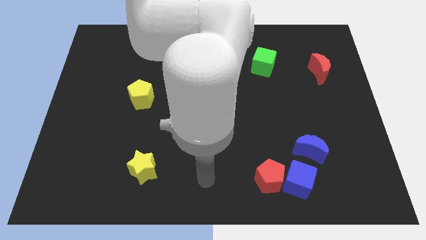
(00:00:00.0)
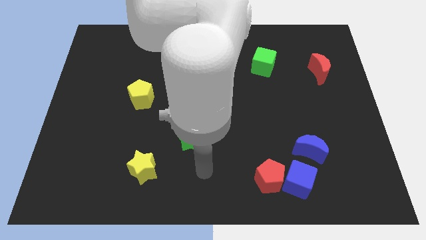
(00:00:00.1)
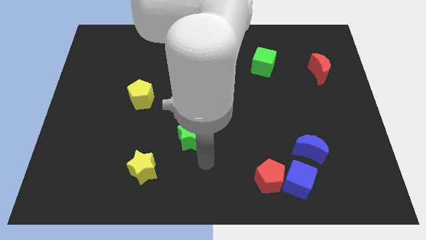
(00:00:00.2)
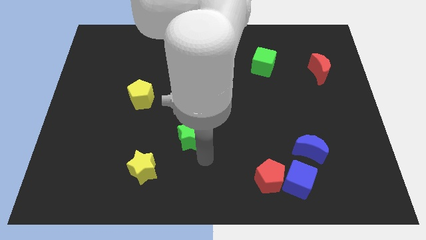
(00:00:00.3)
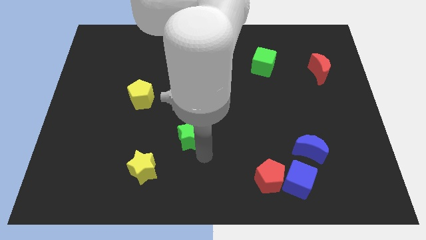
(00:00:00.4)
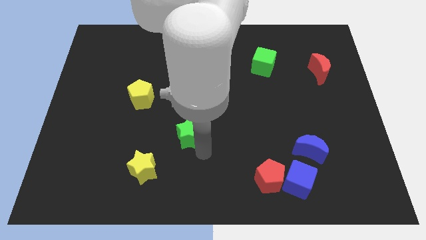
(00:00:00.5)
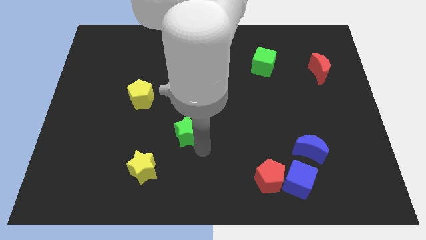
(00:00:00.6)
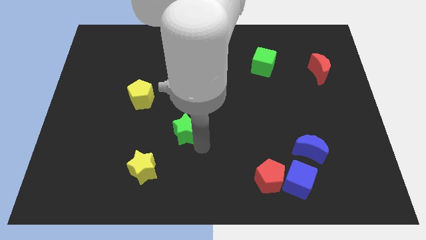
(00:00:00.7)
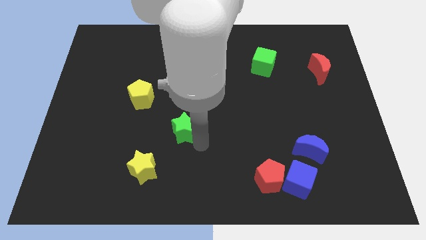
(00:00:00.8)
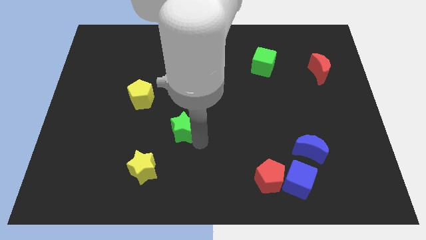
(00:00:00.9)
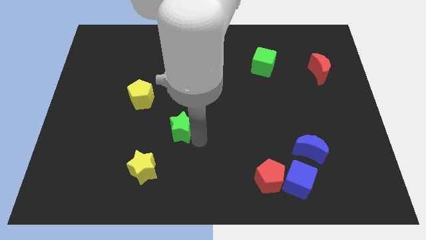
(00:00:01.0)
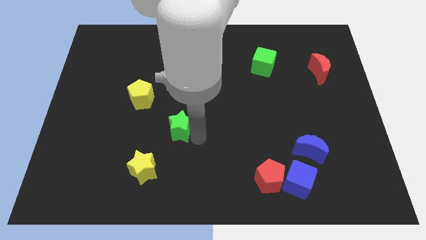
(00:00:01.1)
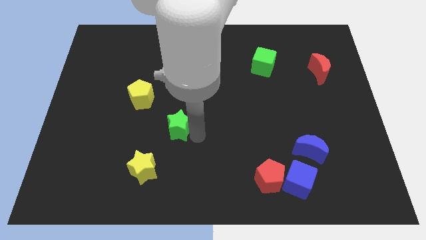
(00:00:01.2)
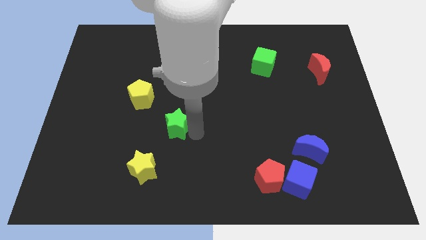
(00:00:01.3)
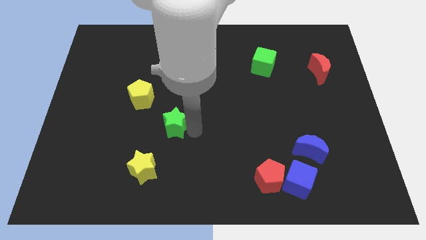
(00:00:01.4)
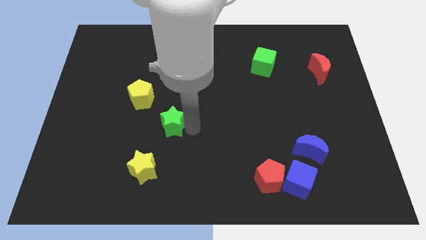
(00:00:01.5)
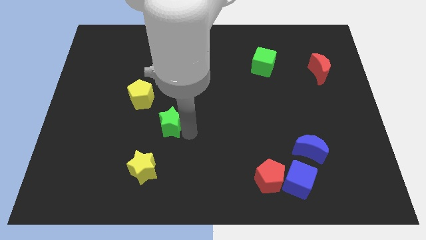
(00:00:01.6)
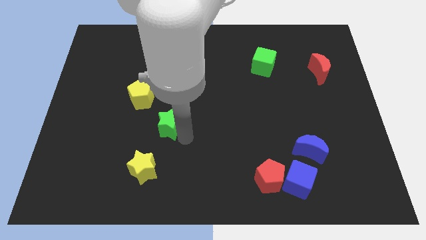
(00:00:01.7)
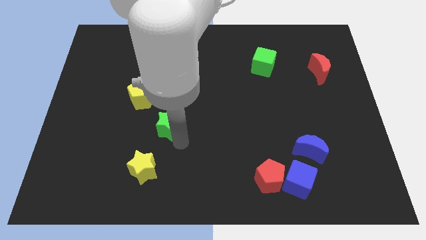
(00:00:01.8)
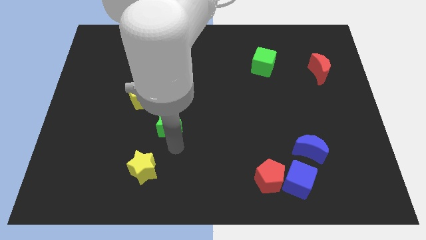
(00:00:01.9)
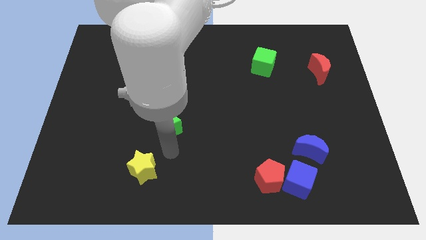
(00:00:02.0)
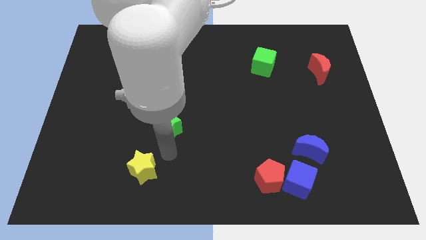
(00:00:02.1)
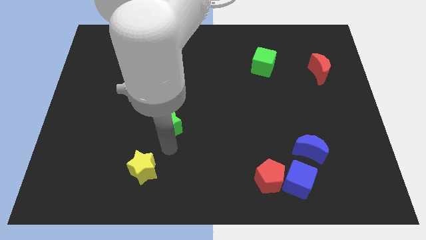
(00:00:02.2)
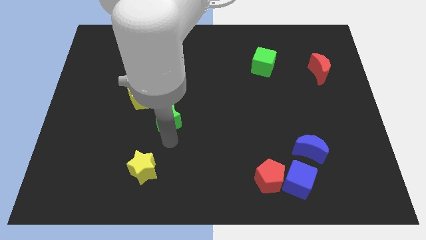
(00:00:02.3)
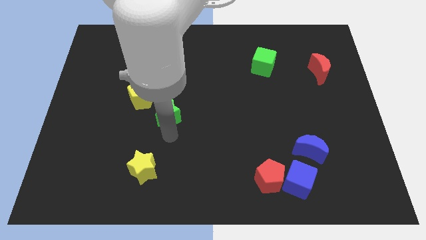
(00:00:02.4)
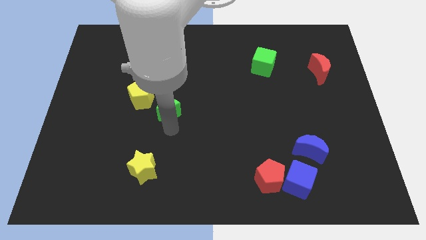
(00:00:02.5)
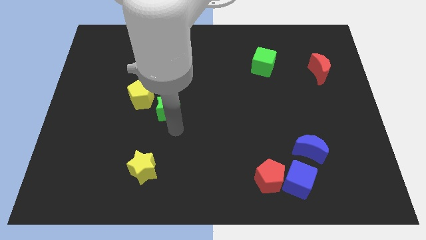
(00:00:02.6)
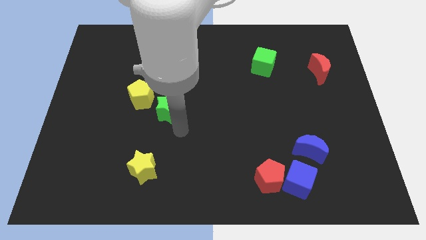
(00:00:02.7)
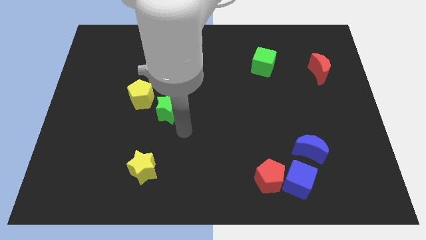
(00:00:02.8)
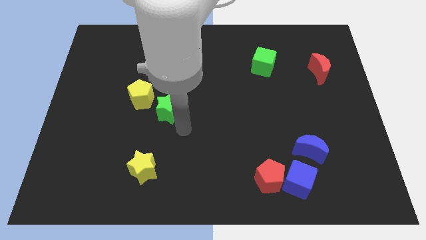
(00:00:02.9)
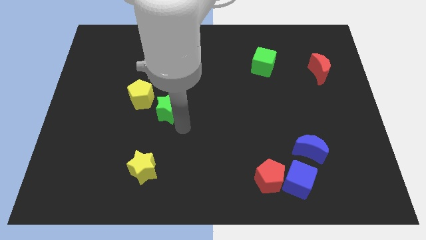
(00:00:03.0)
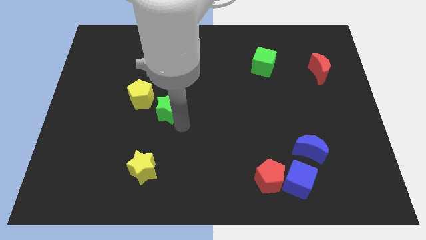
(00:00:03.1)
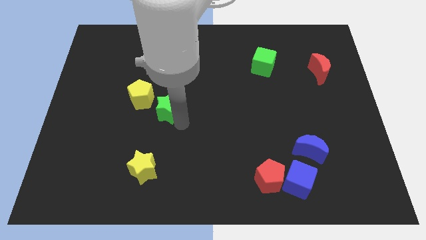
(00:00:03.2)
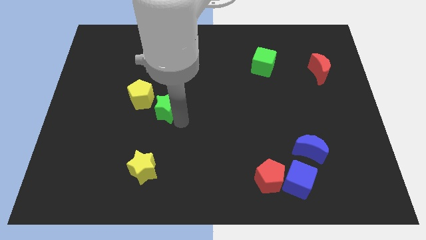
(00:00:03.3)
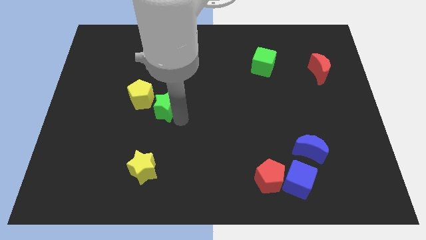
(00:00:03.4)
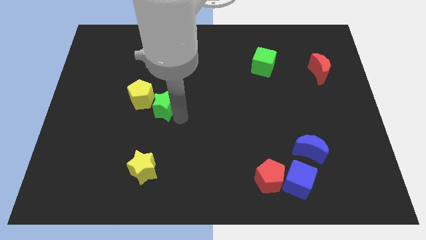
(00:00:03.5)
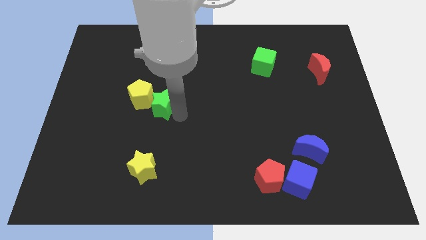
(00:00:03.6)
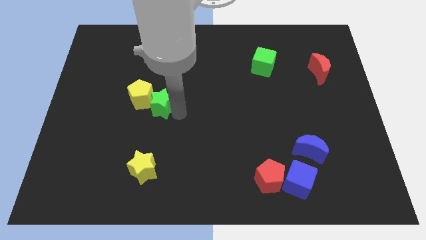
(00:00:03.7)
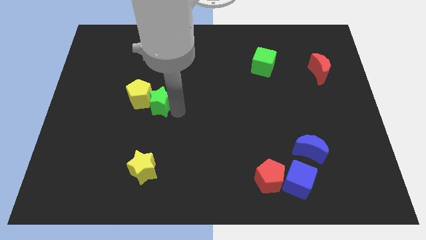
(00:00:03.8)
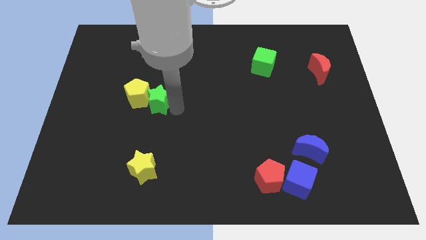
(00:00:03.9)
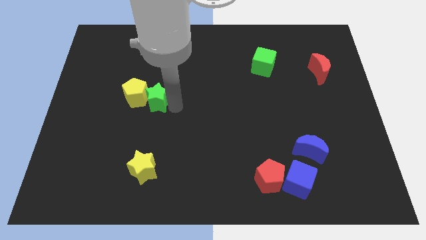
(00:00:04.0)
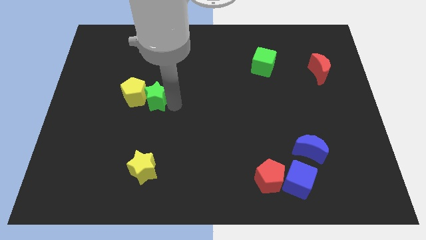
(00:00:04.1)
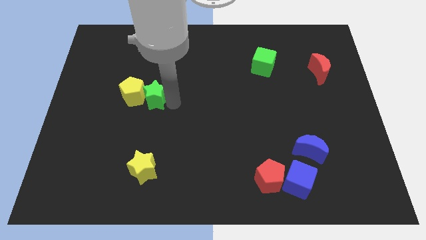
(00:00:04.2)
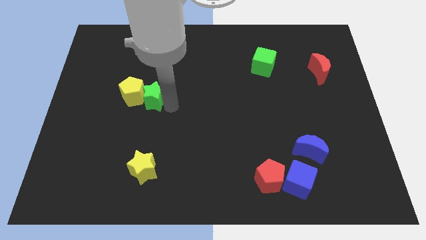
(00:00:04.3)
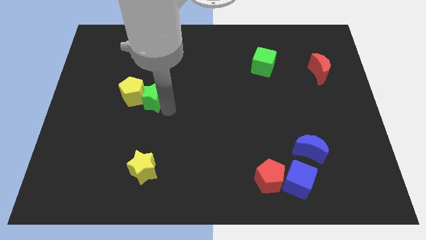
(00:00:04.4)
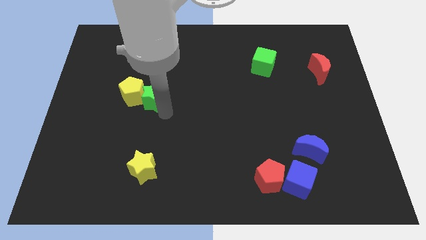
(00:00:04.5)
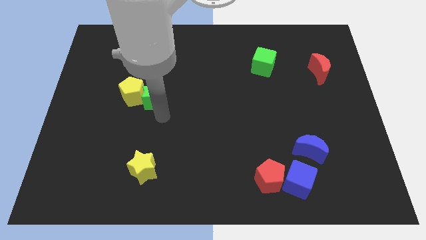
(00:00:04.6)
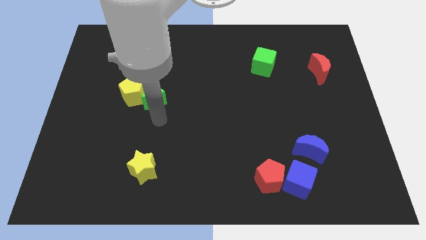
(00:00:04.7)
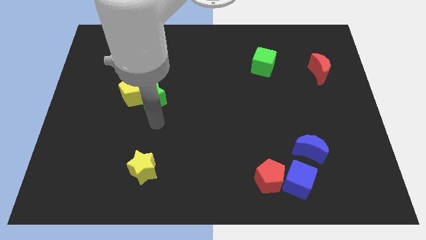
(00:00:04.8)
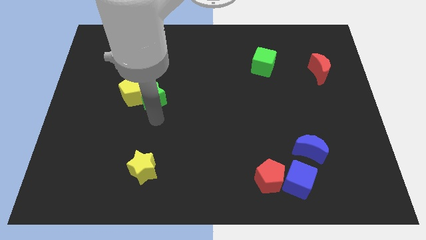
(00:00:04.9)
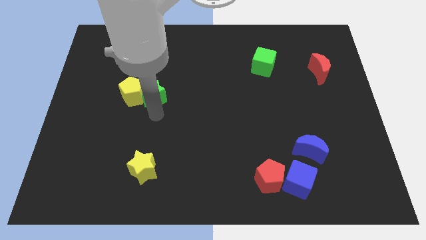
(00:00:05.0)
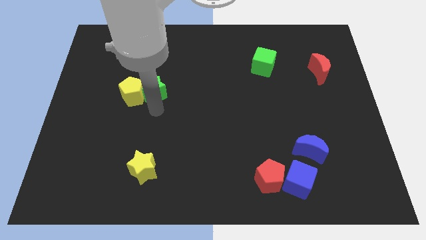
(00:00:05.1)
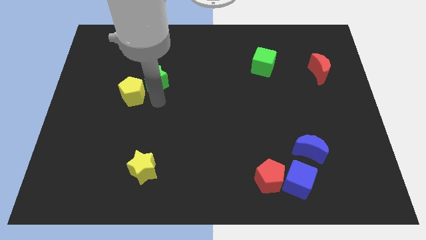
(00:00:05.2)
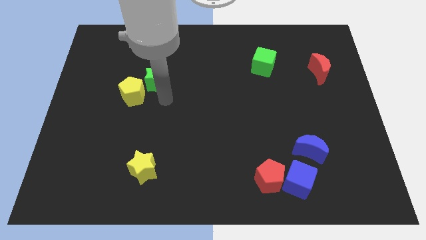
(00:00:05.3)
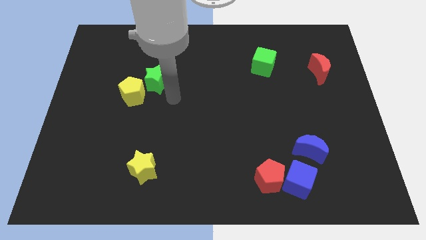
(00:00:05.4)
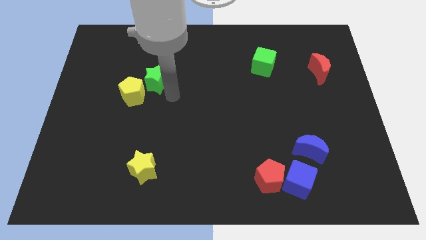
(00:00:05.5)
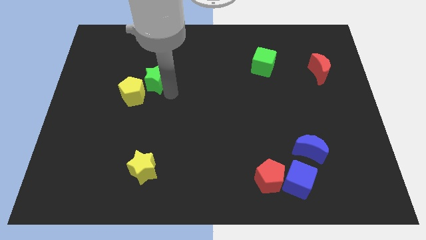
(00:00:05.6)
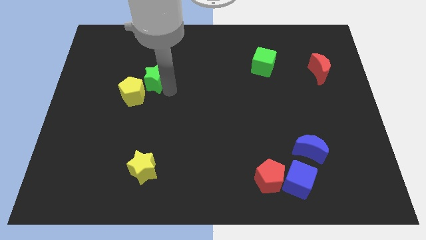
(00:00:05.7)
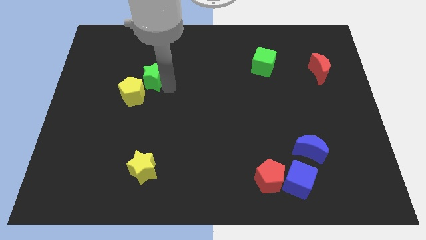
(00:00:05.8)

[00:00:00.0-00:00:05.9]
slide the green star to the top side of the yellow pentagon

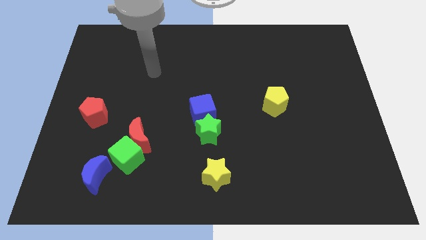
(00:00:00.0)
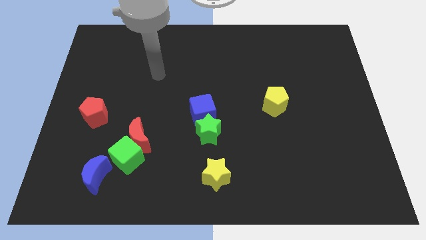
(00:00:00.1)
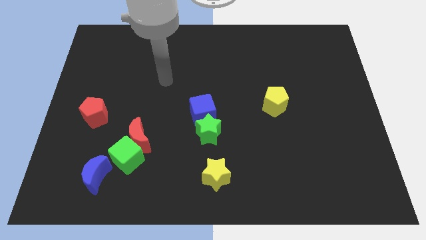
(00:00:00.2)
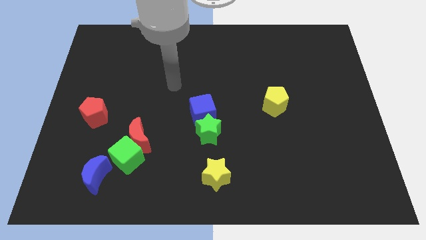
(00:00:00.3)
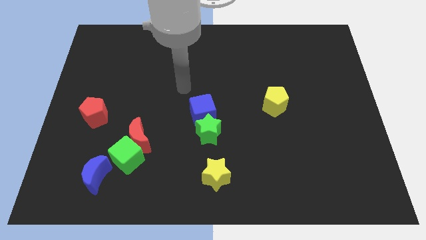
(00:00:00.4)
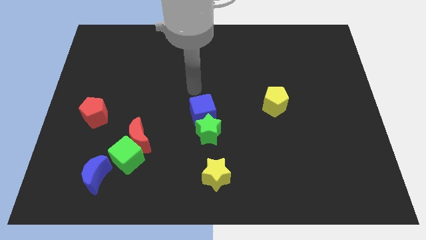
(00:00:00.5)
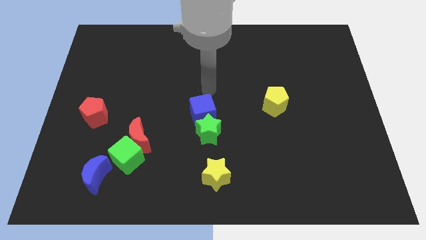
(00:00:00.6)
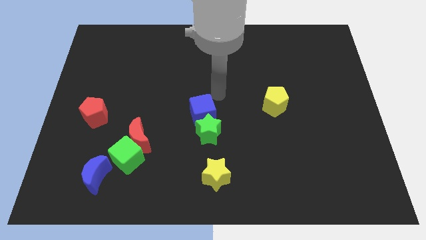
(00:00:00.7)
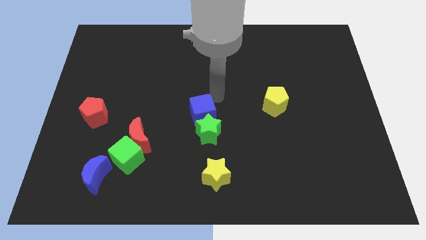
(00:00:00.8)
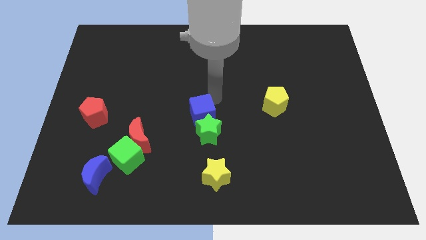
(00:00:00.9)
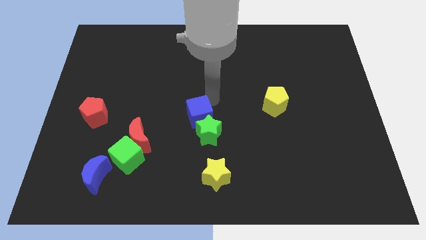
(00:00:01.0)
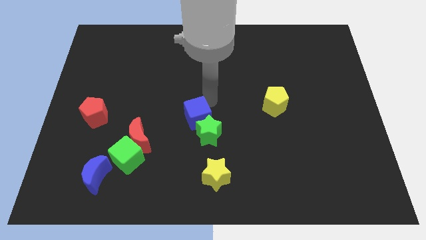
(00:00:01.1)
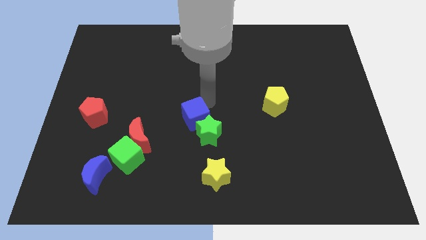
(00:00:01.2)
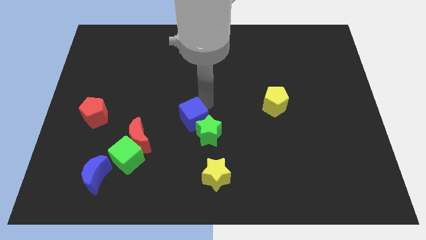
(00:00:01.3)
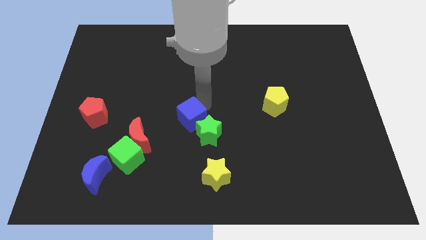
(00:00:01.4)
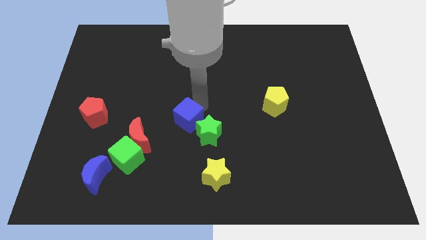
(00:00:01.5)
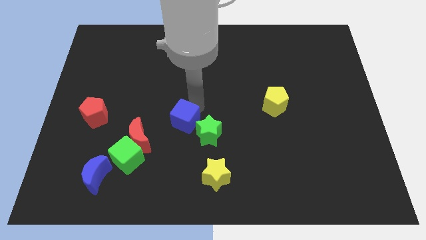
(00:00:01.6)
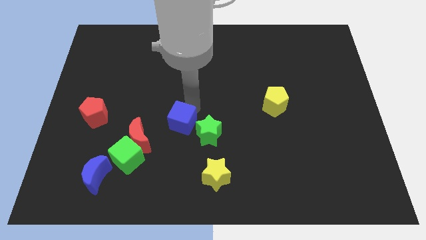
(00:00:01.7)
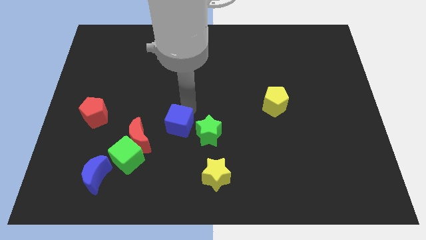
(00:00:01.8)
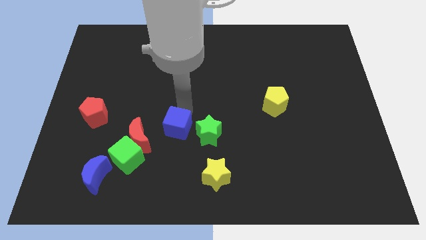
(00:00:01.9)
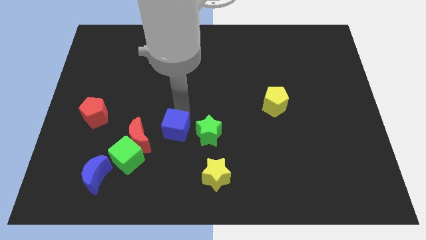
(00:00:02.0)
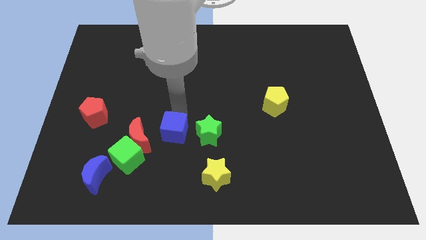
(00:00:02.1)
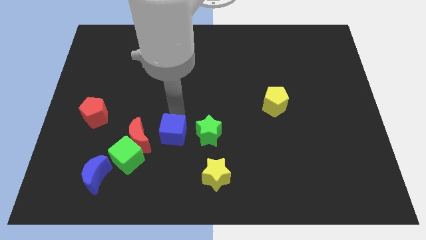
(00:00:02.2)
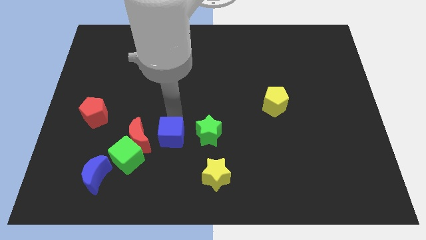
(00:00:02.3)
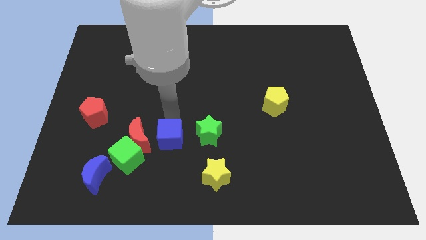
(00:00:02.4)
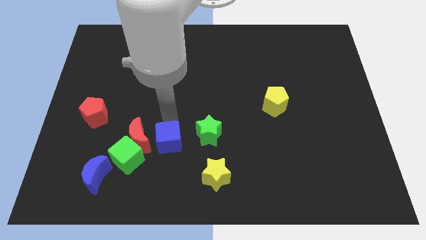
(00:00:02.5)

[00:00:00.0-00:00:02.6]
put the blue cube to the bottom left side of the green star
